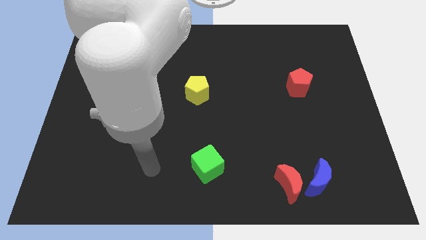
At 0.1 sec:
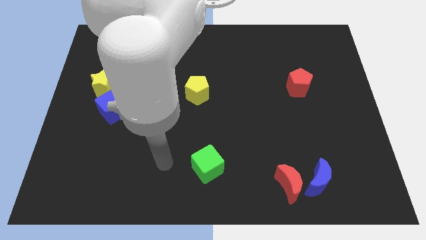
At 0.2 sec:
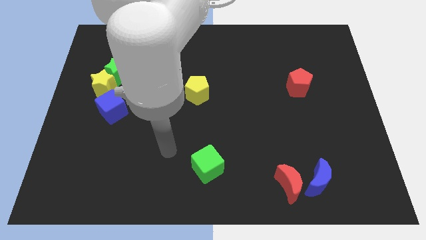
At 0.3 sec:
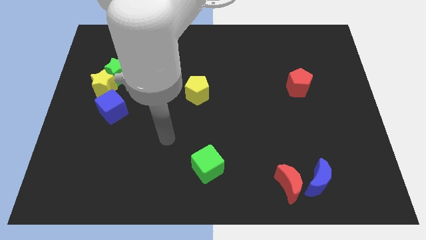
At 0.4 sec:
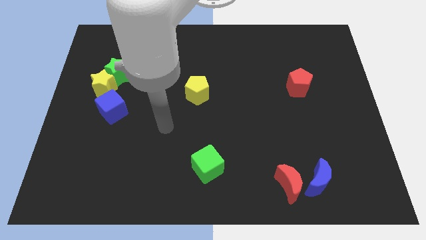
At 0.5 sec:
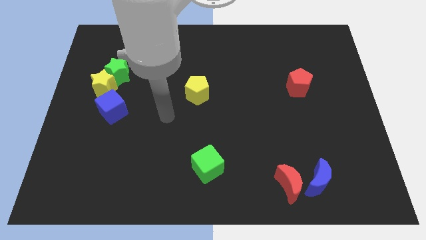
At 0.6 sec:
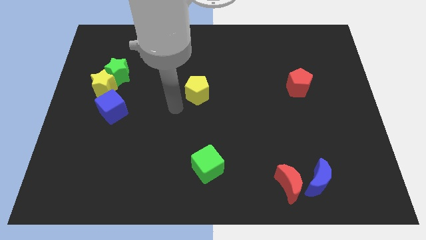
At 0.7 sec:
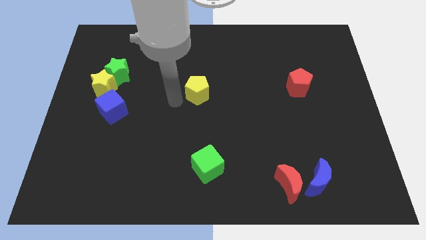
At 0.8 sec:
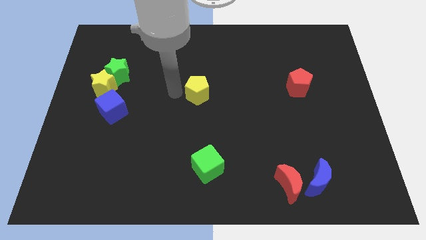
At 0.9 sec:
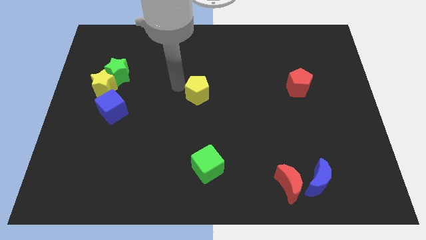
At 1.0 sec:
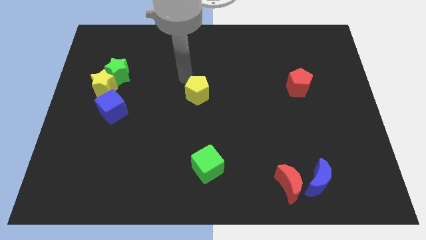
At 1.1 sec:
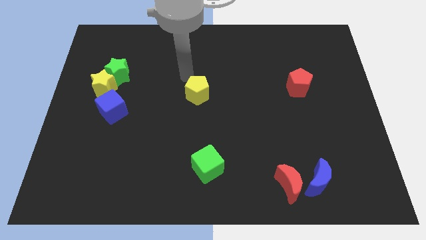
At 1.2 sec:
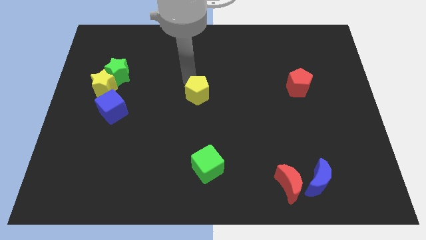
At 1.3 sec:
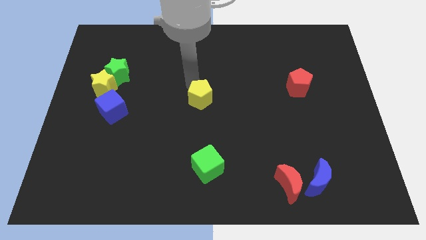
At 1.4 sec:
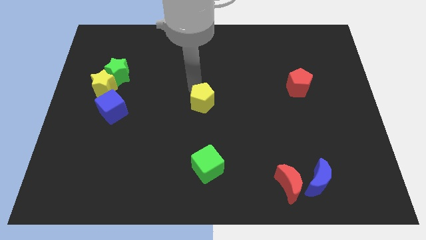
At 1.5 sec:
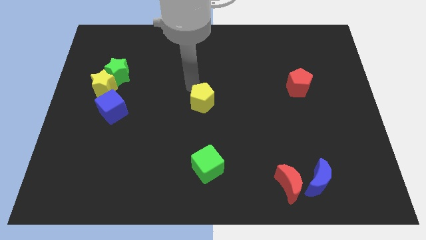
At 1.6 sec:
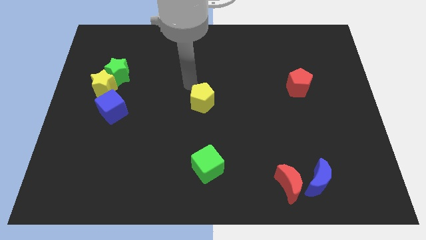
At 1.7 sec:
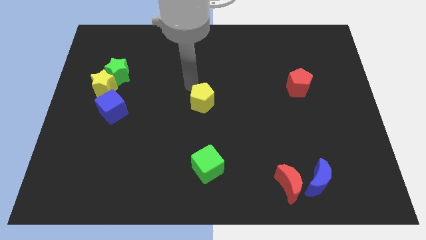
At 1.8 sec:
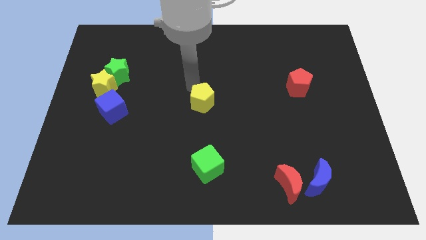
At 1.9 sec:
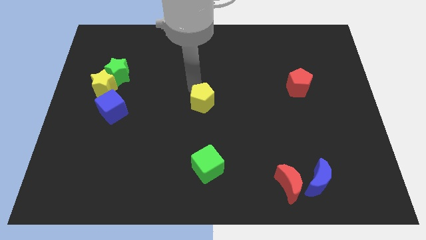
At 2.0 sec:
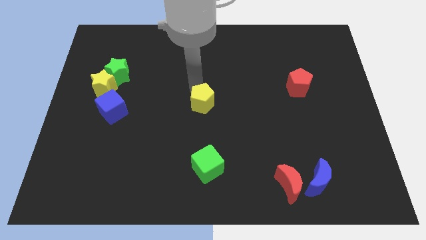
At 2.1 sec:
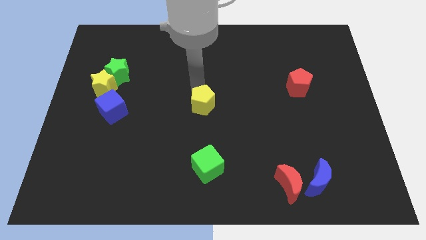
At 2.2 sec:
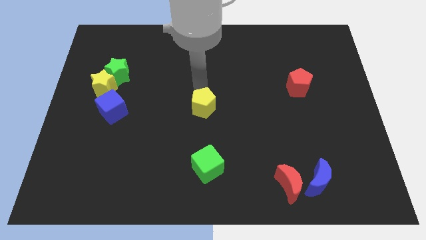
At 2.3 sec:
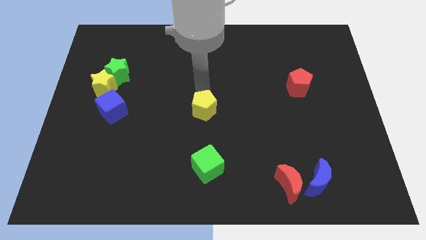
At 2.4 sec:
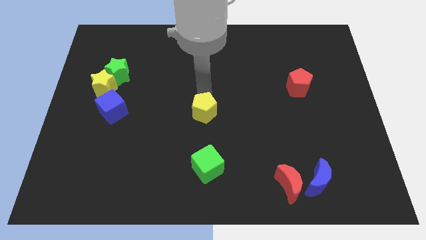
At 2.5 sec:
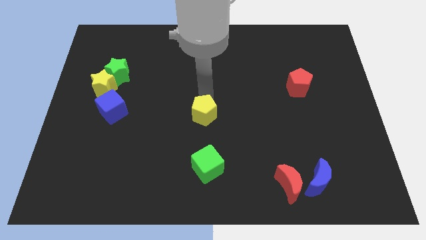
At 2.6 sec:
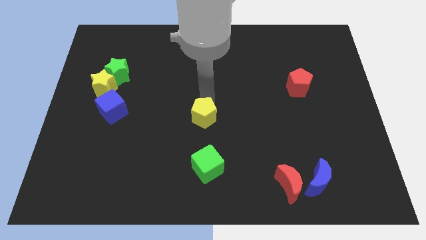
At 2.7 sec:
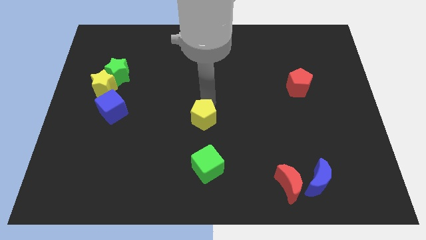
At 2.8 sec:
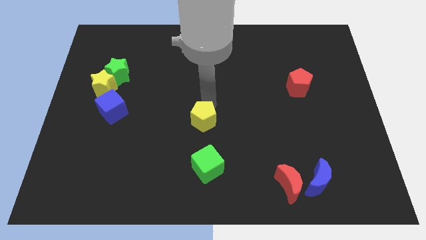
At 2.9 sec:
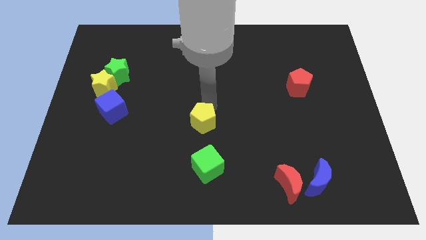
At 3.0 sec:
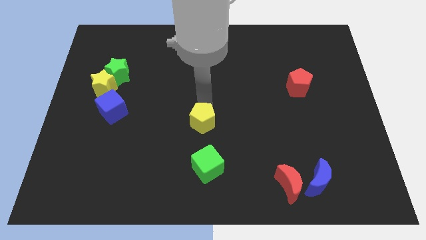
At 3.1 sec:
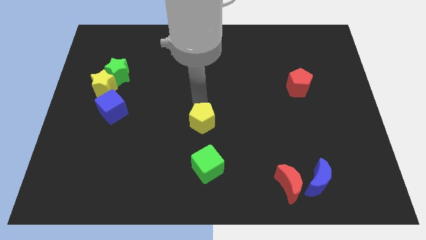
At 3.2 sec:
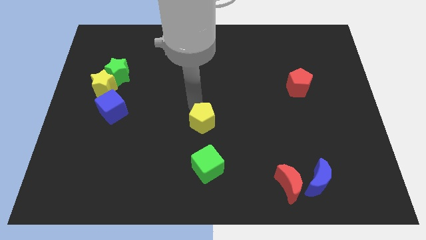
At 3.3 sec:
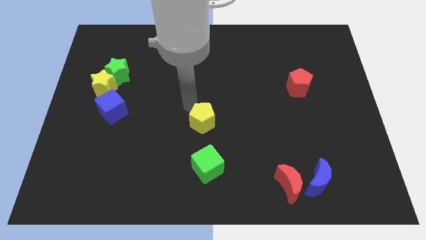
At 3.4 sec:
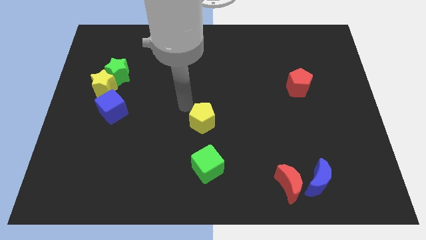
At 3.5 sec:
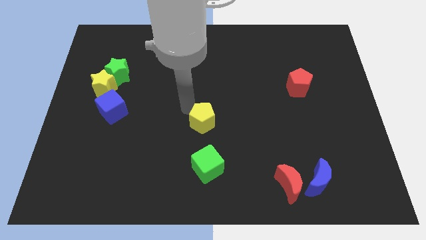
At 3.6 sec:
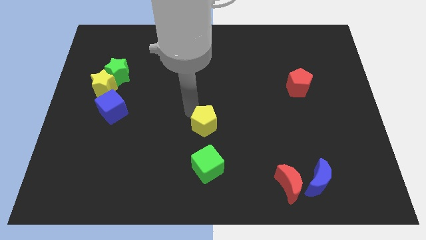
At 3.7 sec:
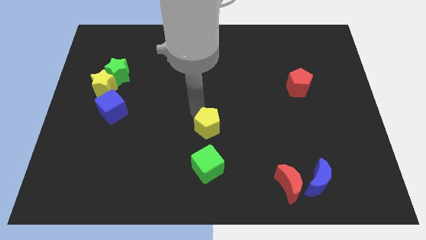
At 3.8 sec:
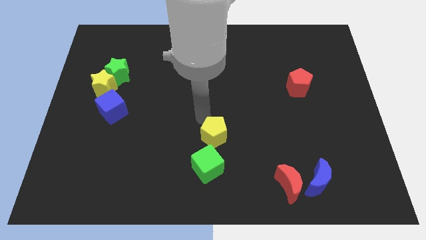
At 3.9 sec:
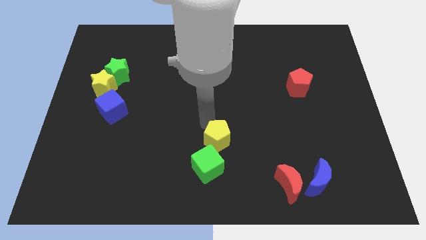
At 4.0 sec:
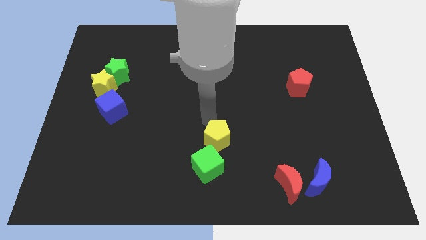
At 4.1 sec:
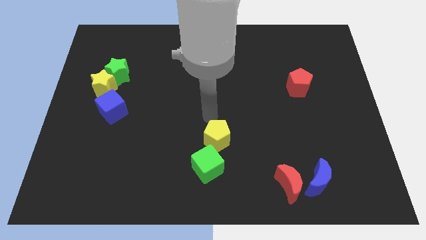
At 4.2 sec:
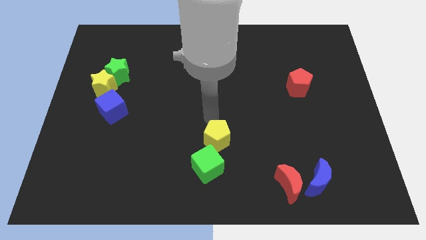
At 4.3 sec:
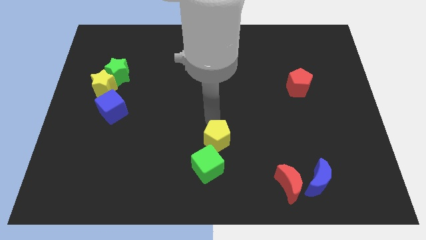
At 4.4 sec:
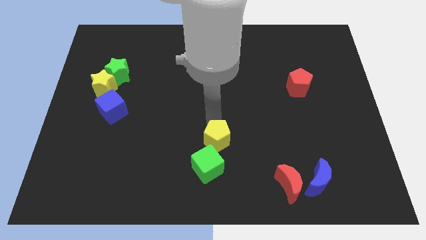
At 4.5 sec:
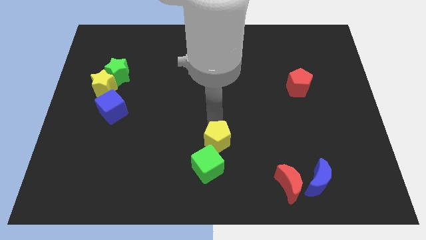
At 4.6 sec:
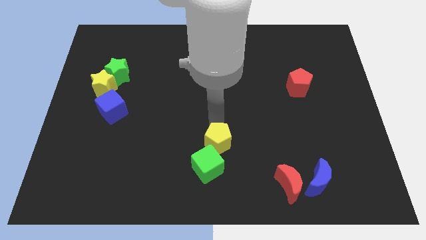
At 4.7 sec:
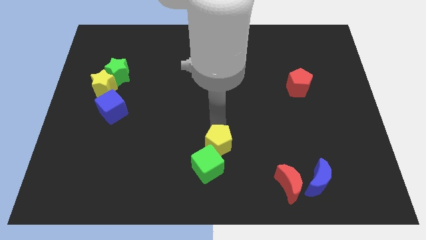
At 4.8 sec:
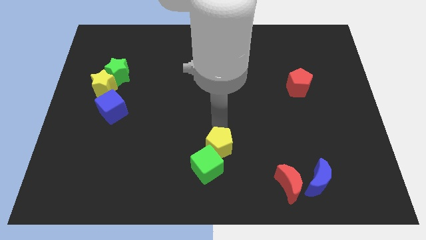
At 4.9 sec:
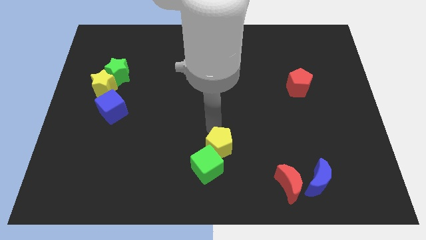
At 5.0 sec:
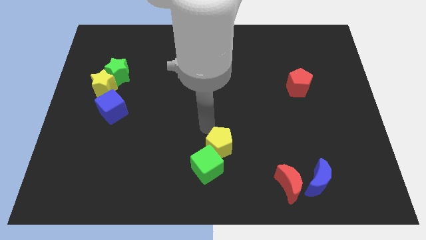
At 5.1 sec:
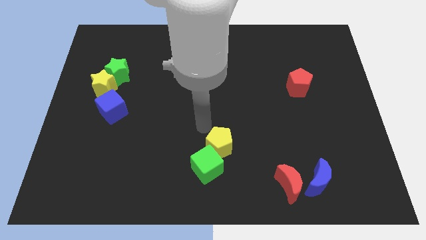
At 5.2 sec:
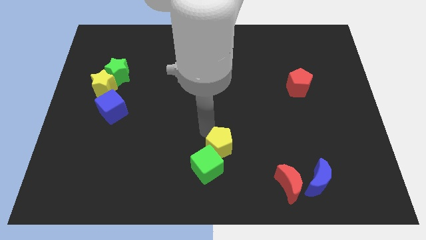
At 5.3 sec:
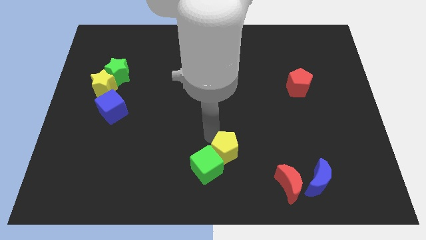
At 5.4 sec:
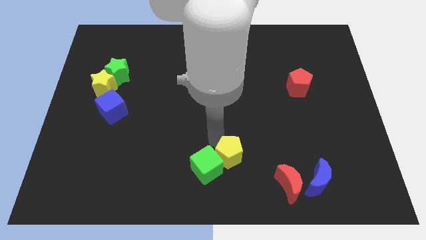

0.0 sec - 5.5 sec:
move the yellow pentagon to the bottom side
